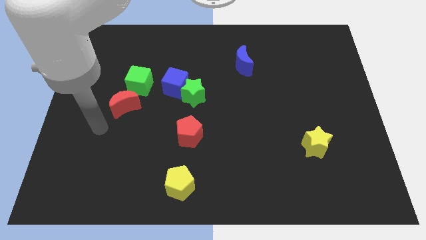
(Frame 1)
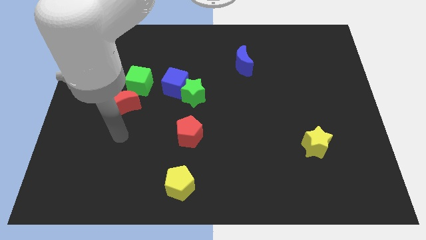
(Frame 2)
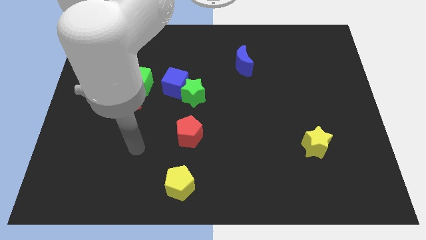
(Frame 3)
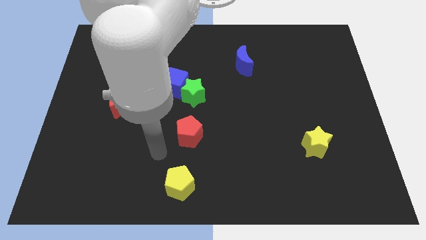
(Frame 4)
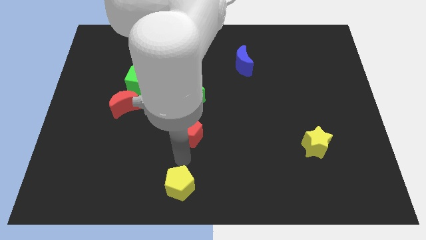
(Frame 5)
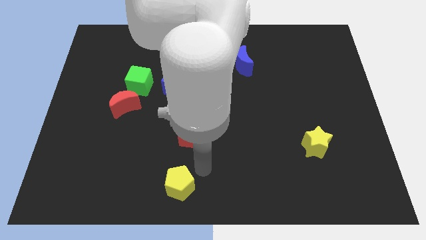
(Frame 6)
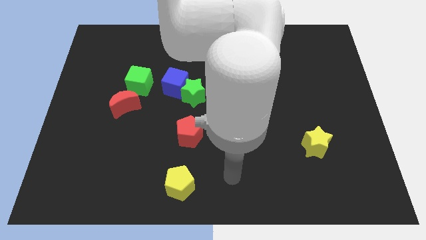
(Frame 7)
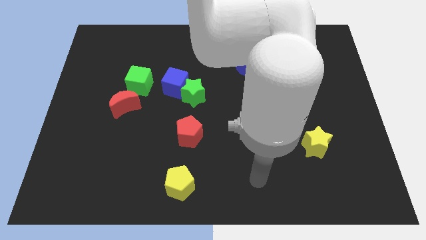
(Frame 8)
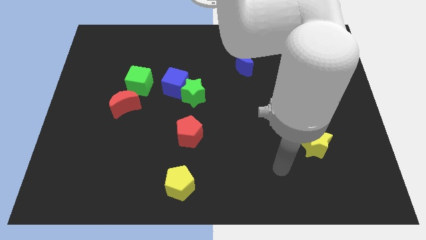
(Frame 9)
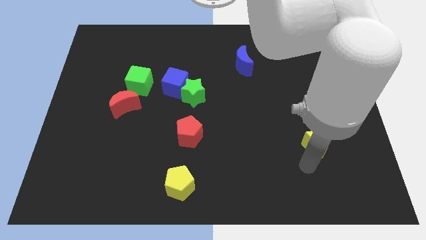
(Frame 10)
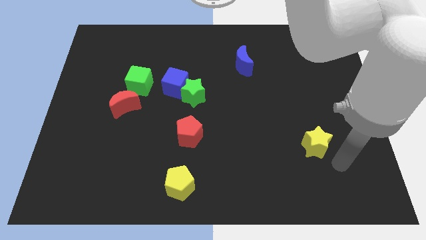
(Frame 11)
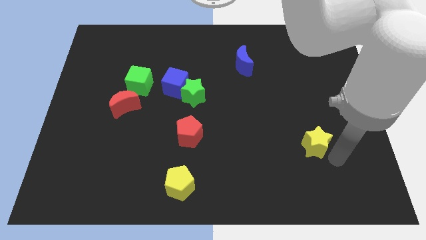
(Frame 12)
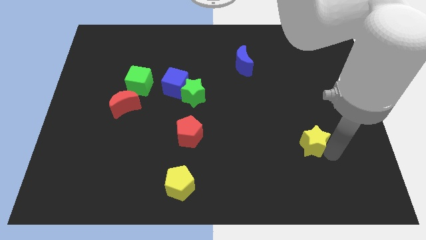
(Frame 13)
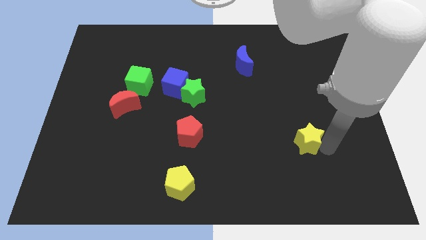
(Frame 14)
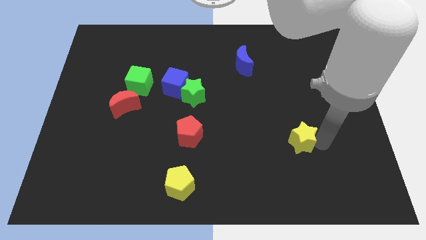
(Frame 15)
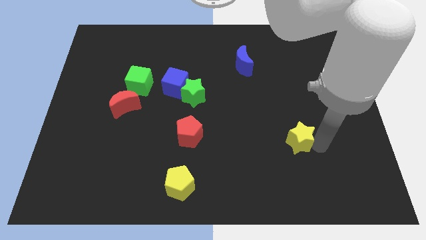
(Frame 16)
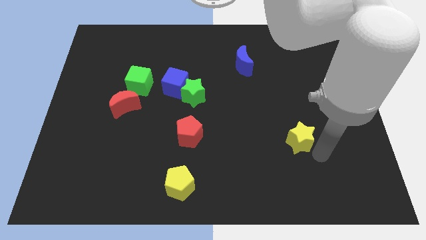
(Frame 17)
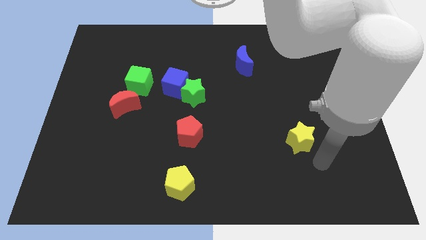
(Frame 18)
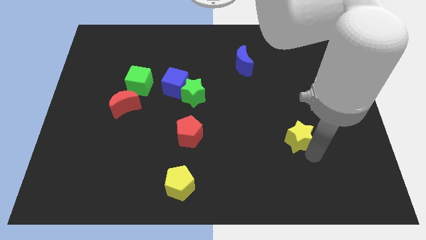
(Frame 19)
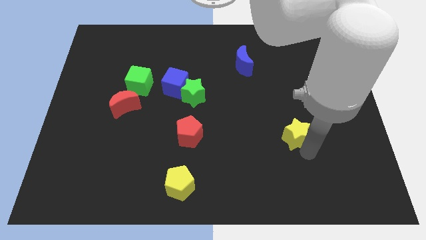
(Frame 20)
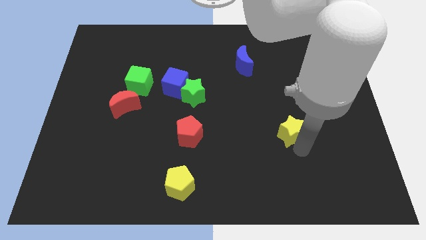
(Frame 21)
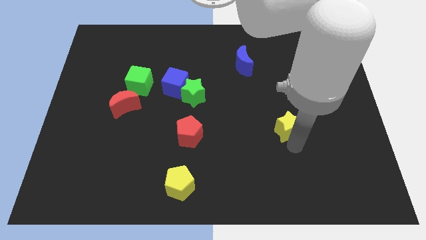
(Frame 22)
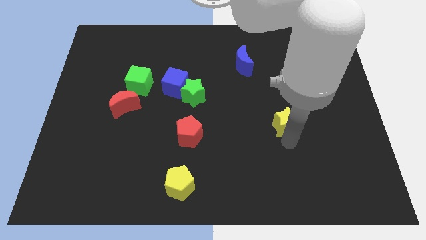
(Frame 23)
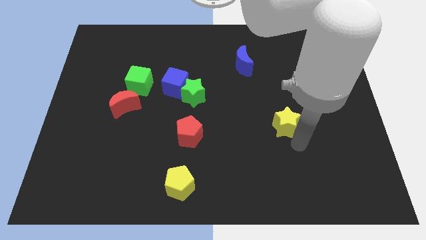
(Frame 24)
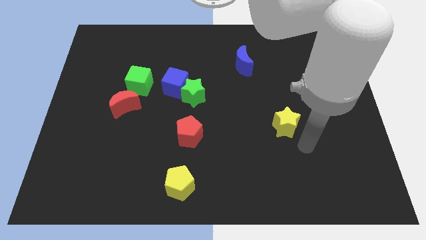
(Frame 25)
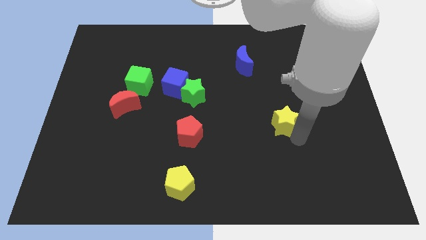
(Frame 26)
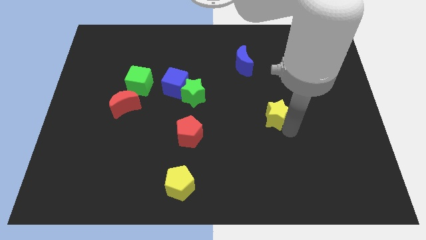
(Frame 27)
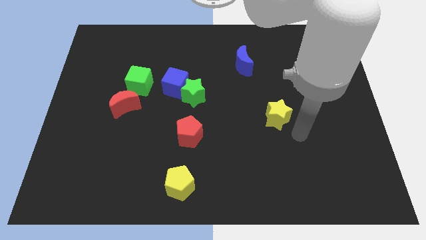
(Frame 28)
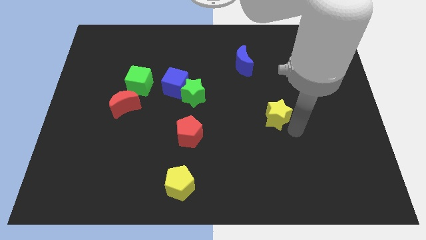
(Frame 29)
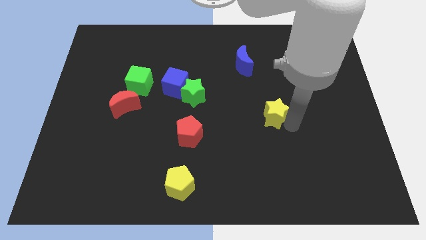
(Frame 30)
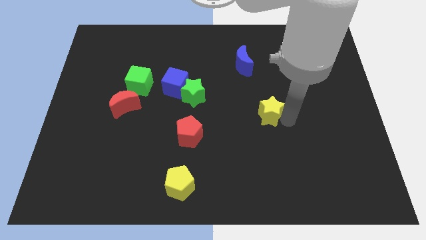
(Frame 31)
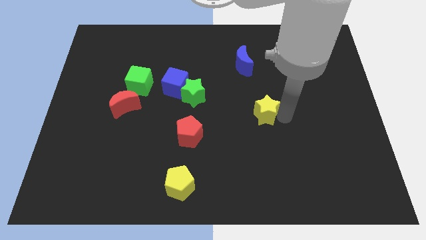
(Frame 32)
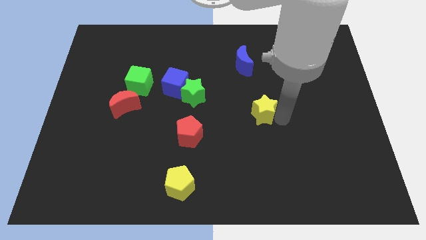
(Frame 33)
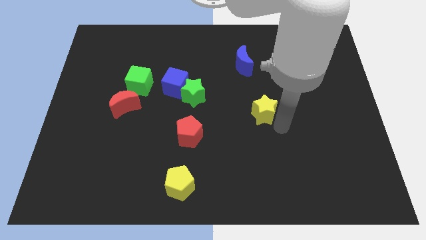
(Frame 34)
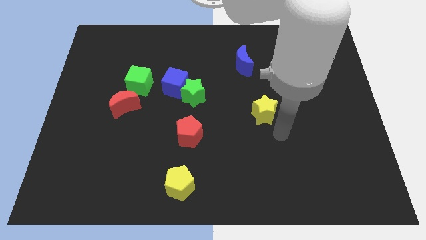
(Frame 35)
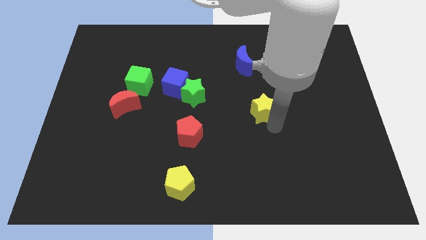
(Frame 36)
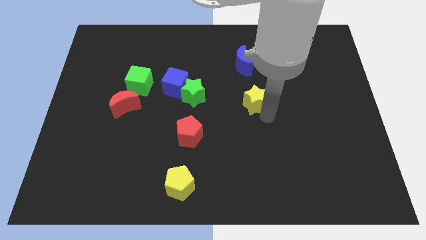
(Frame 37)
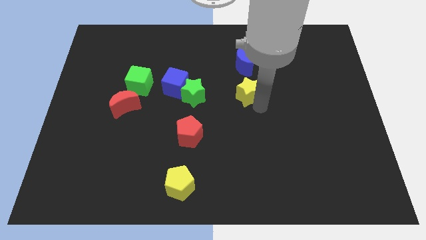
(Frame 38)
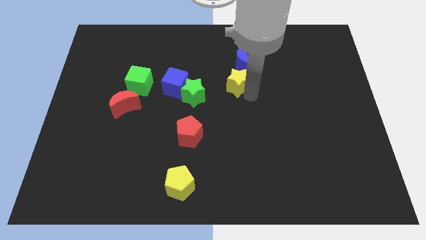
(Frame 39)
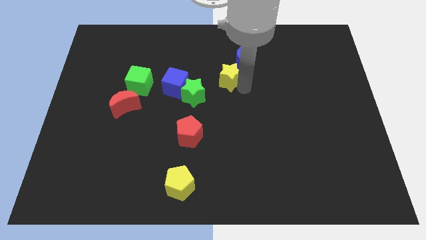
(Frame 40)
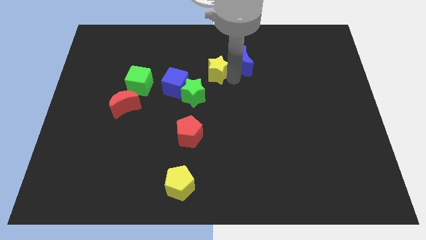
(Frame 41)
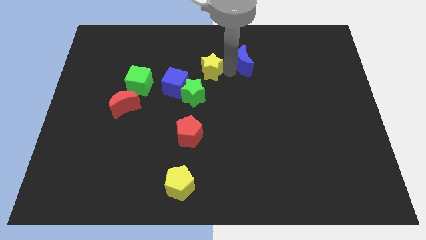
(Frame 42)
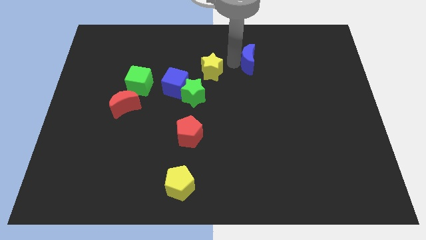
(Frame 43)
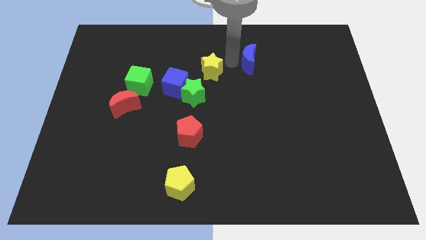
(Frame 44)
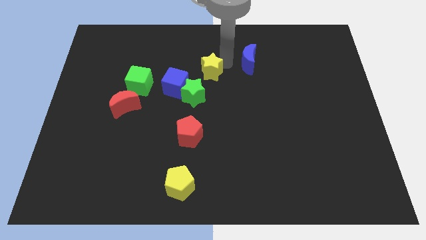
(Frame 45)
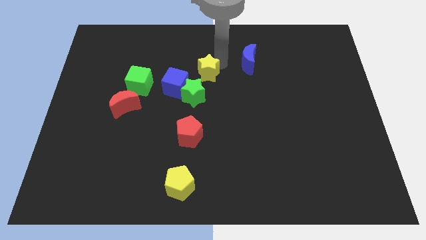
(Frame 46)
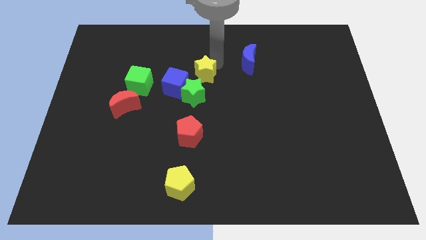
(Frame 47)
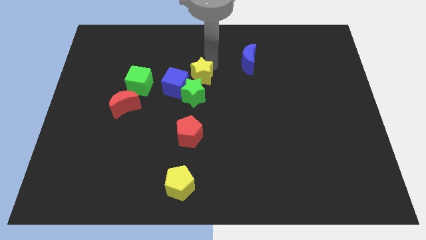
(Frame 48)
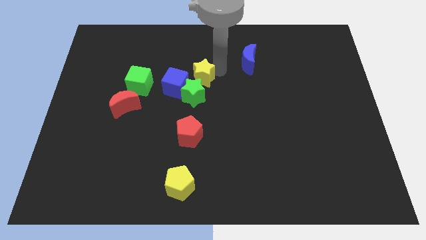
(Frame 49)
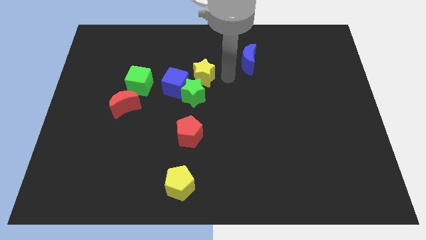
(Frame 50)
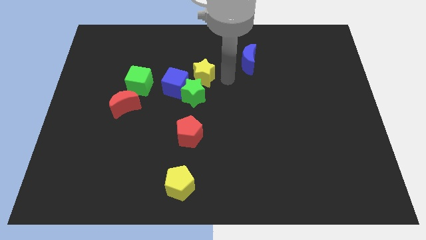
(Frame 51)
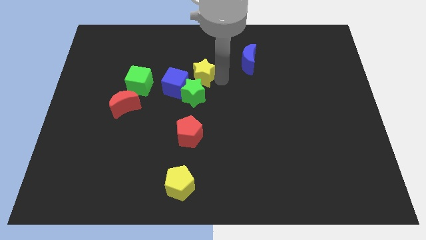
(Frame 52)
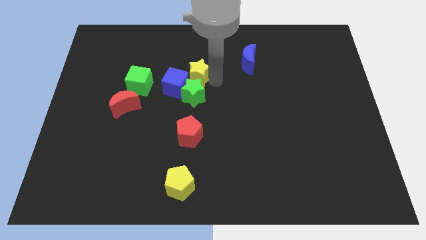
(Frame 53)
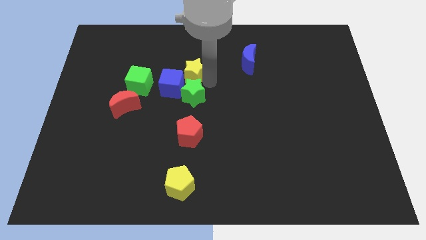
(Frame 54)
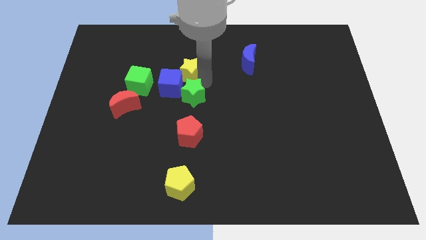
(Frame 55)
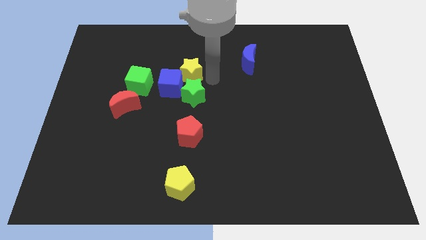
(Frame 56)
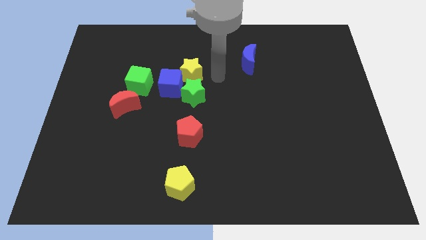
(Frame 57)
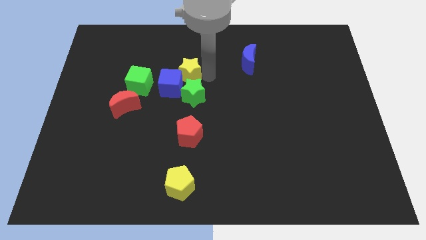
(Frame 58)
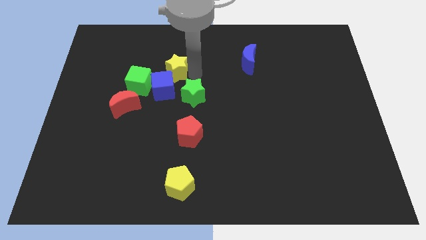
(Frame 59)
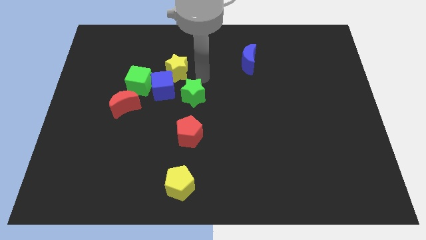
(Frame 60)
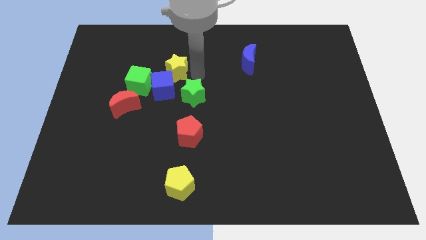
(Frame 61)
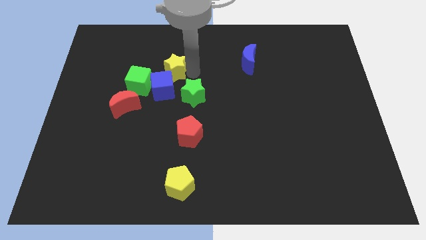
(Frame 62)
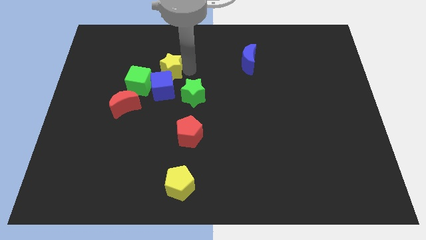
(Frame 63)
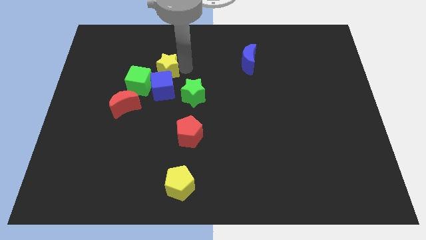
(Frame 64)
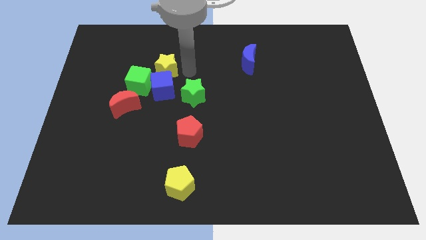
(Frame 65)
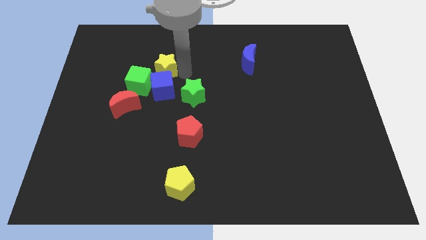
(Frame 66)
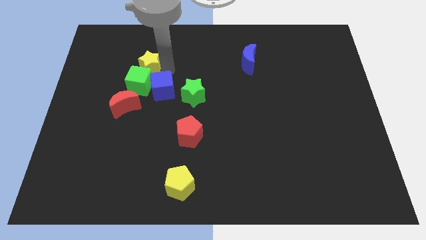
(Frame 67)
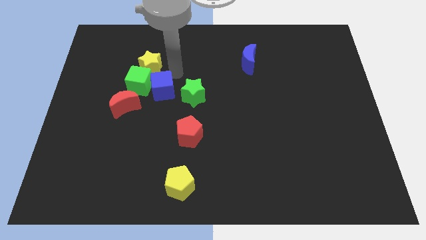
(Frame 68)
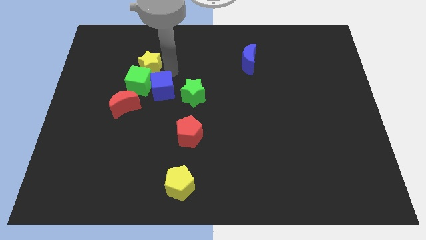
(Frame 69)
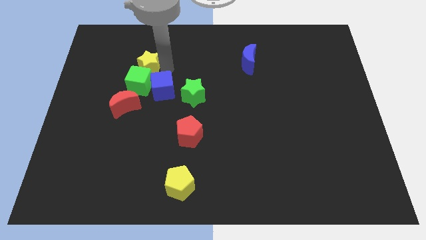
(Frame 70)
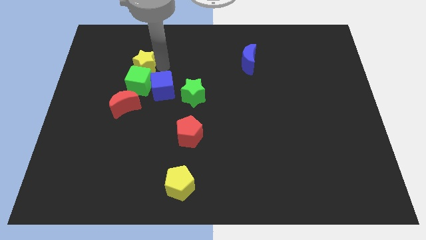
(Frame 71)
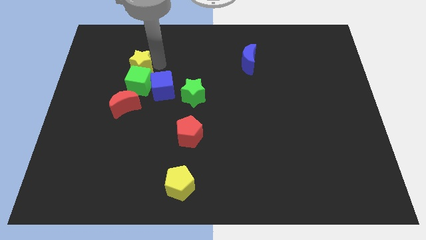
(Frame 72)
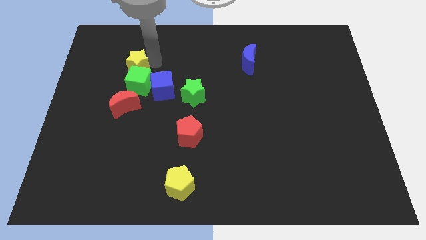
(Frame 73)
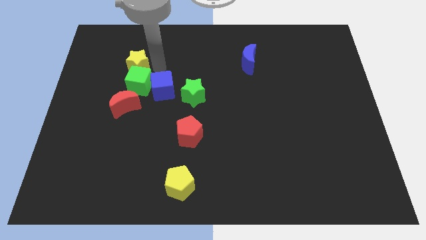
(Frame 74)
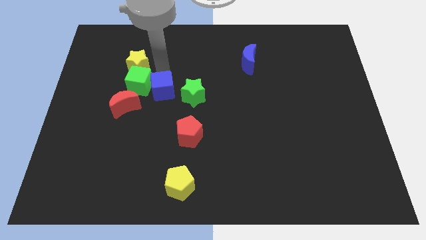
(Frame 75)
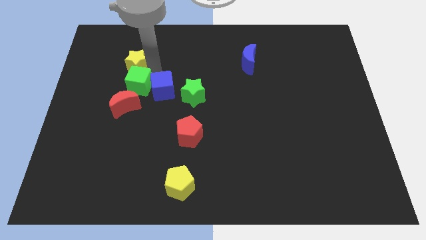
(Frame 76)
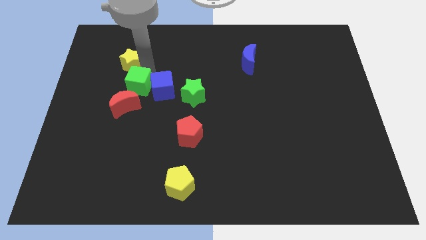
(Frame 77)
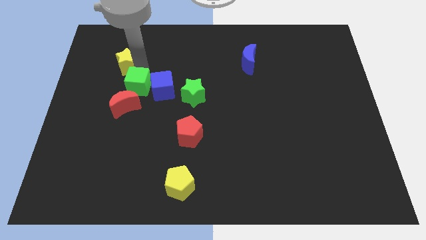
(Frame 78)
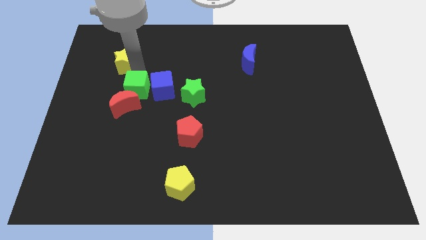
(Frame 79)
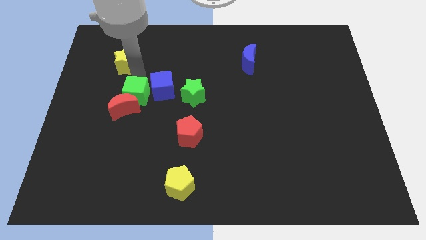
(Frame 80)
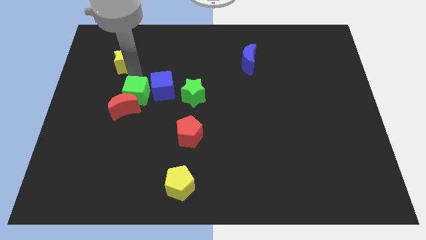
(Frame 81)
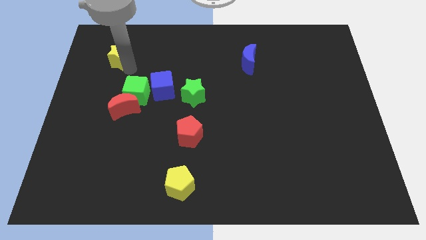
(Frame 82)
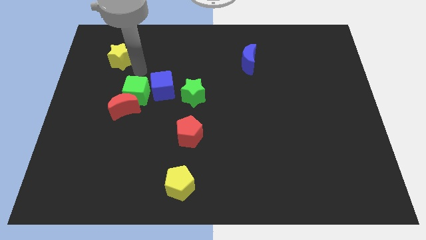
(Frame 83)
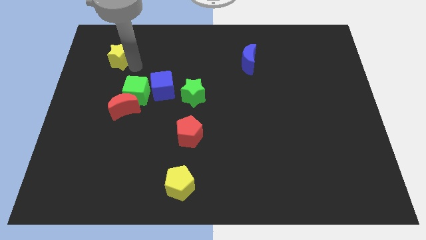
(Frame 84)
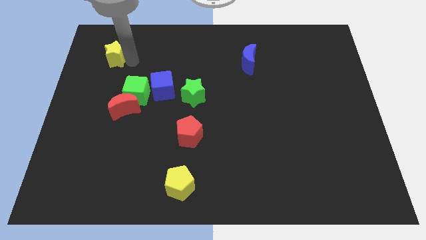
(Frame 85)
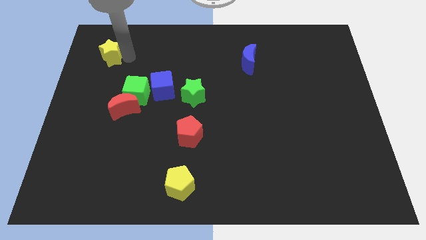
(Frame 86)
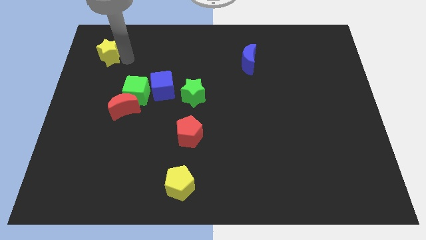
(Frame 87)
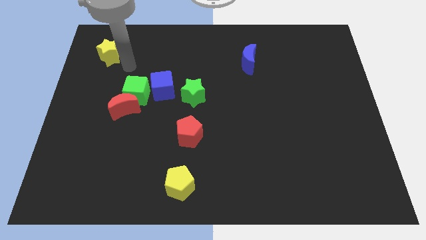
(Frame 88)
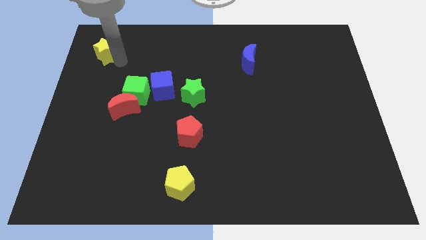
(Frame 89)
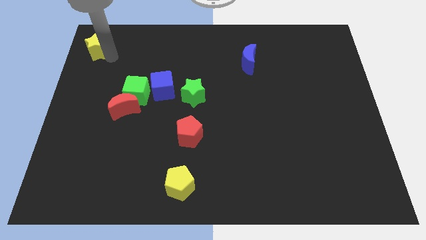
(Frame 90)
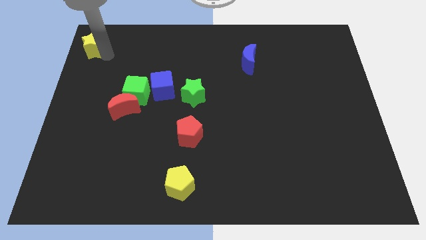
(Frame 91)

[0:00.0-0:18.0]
move the yellow star to the upper left corner
